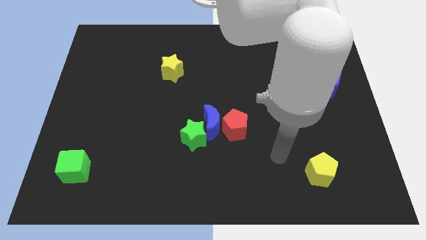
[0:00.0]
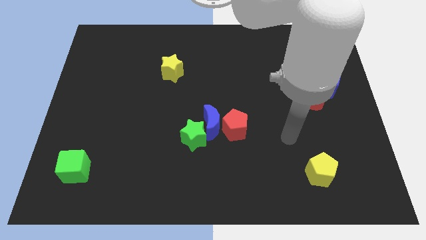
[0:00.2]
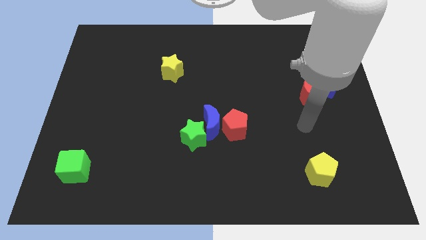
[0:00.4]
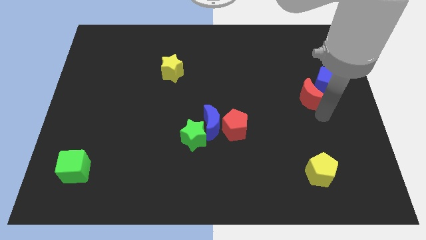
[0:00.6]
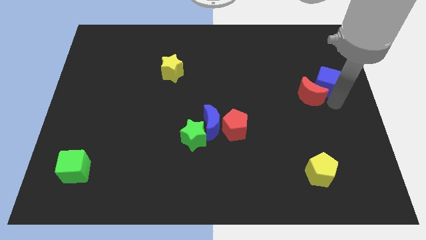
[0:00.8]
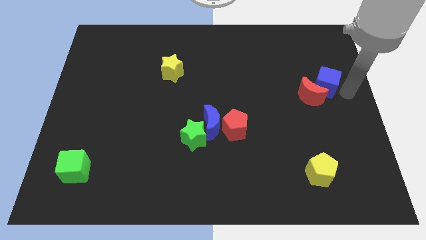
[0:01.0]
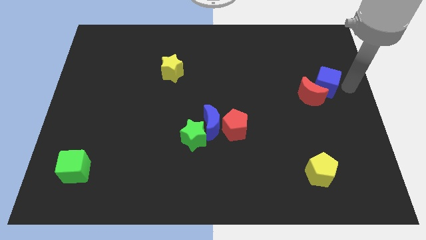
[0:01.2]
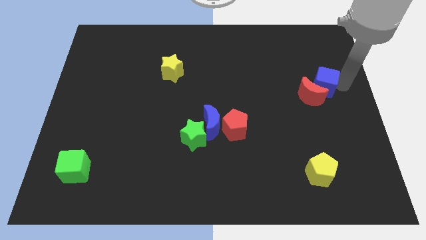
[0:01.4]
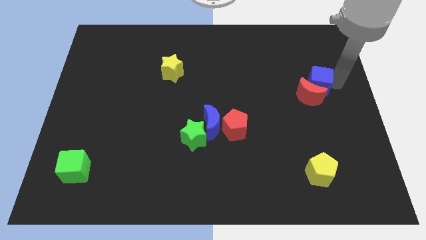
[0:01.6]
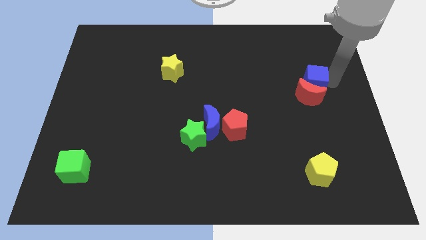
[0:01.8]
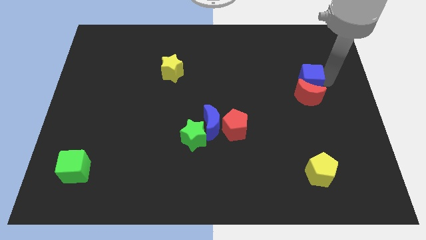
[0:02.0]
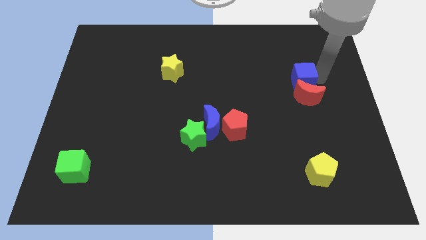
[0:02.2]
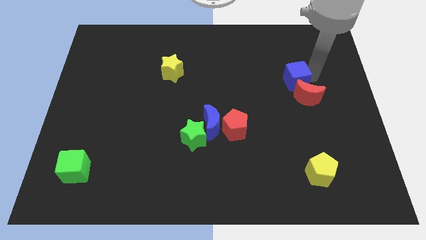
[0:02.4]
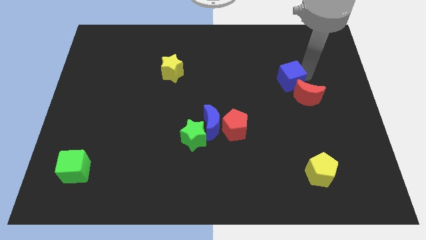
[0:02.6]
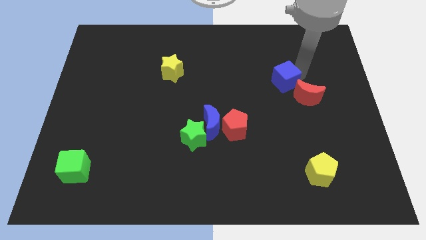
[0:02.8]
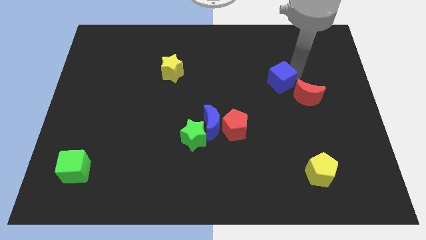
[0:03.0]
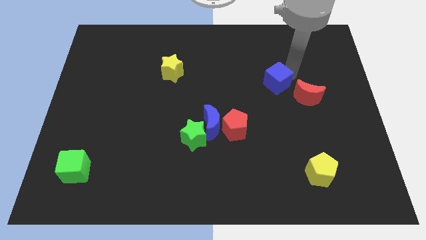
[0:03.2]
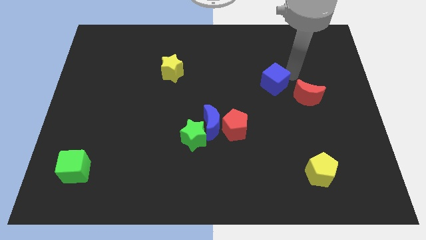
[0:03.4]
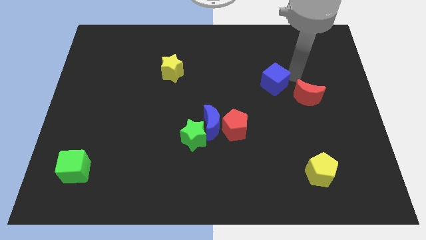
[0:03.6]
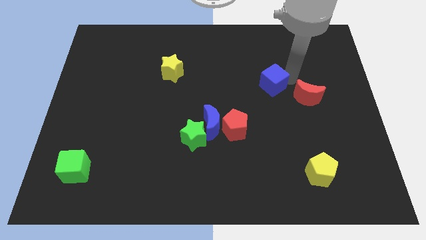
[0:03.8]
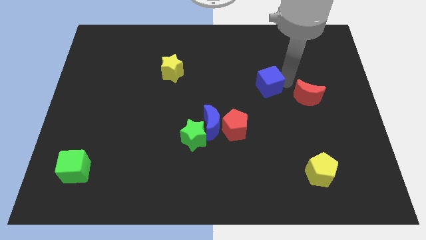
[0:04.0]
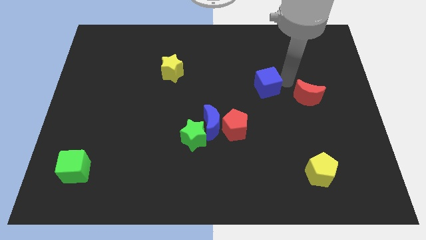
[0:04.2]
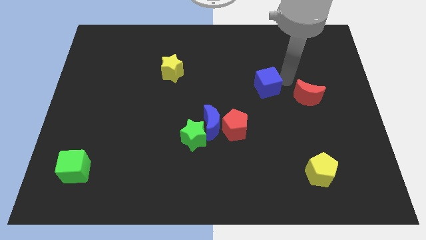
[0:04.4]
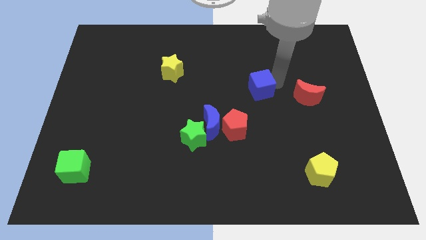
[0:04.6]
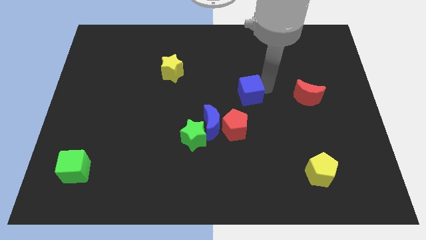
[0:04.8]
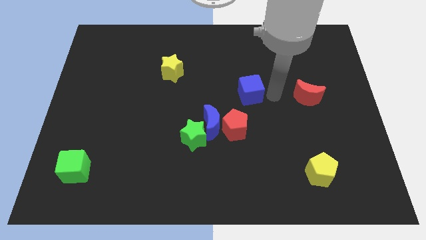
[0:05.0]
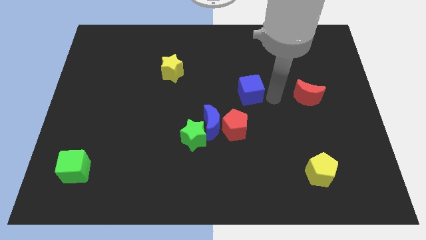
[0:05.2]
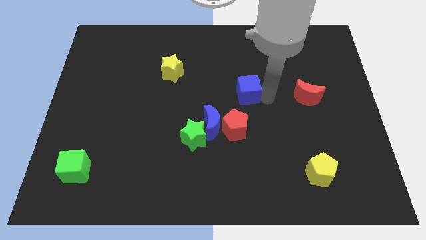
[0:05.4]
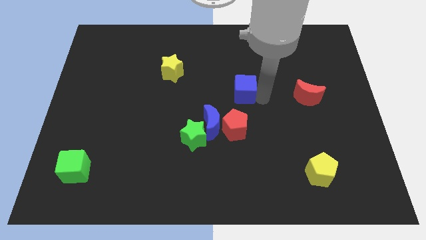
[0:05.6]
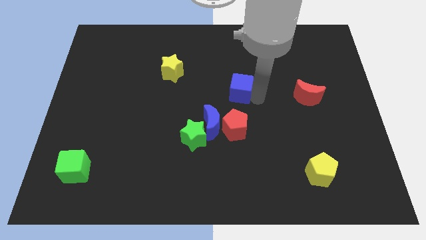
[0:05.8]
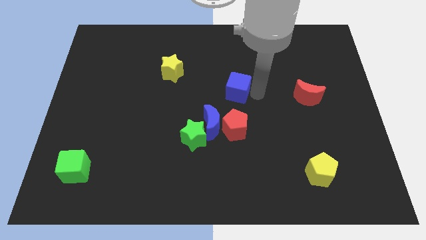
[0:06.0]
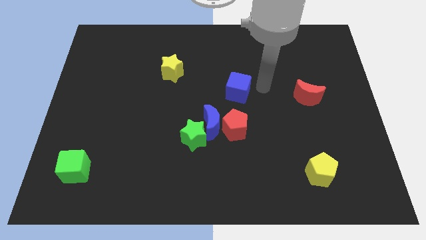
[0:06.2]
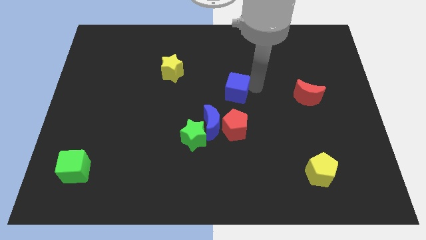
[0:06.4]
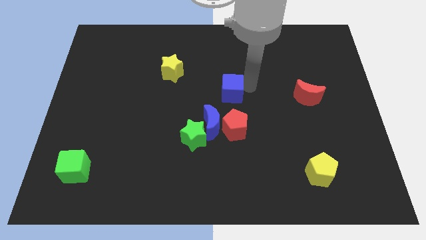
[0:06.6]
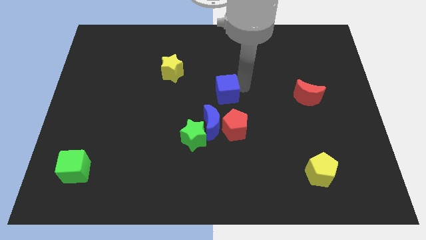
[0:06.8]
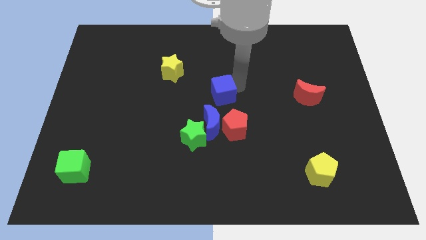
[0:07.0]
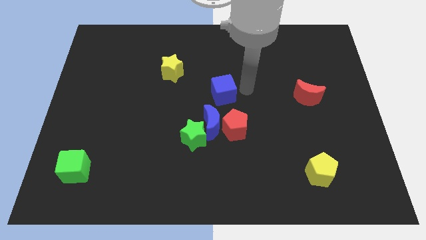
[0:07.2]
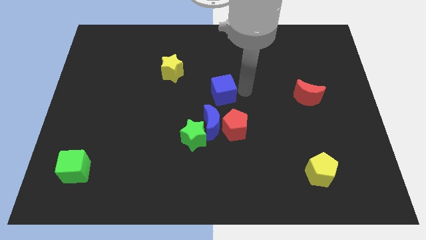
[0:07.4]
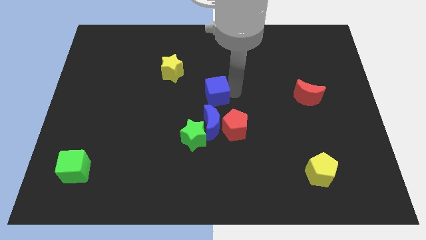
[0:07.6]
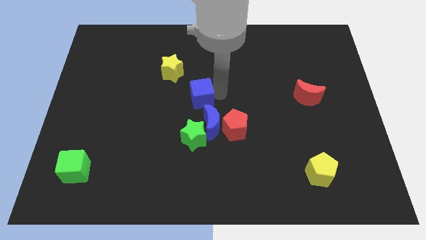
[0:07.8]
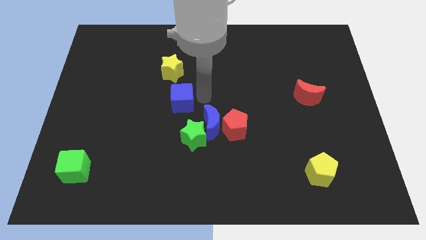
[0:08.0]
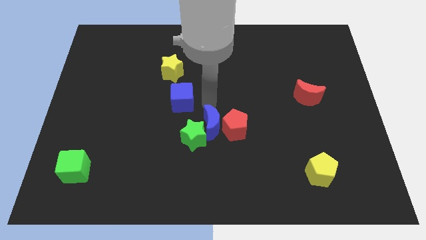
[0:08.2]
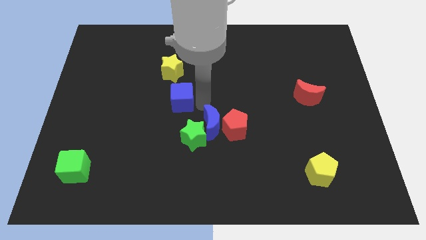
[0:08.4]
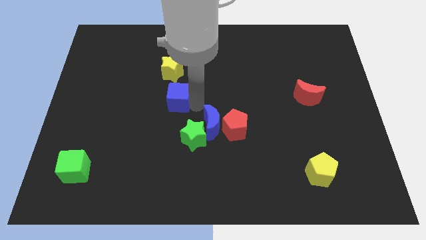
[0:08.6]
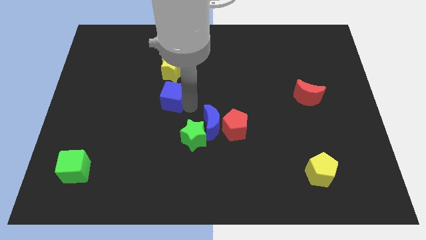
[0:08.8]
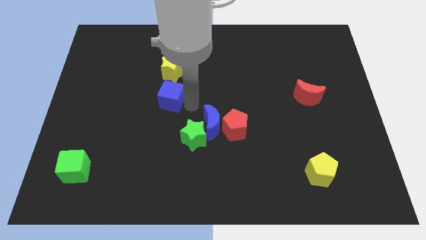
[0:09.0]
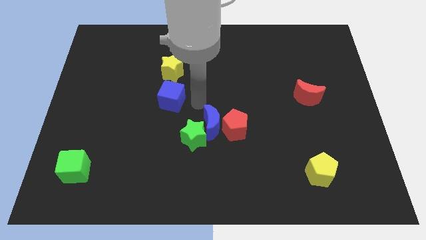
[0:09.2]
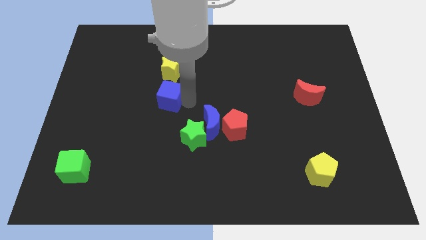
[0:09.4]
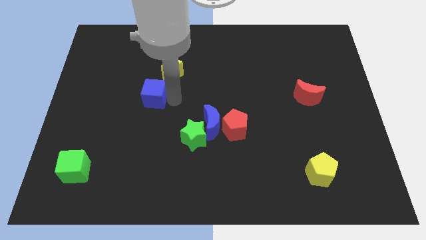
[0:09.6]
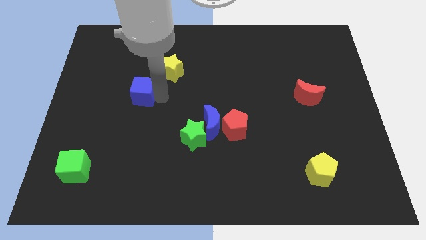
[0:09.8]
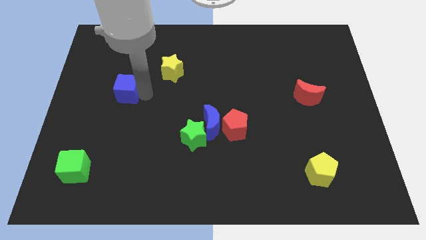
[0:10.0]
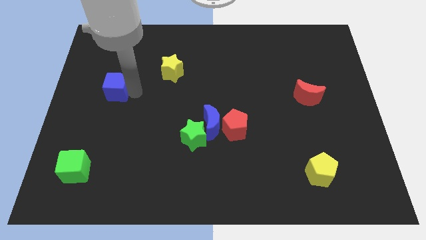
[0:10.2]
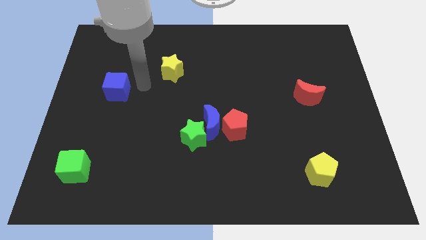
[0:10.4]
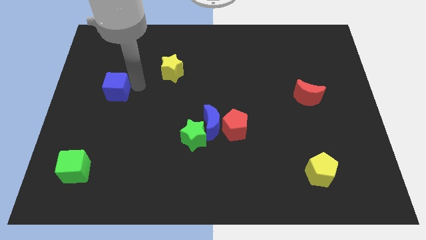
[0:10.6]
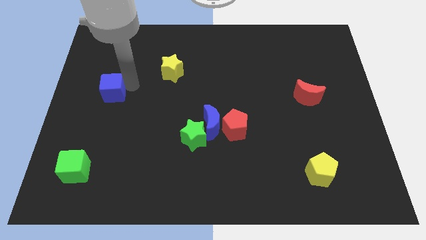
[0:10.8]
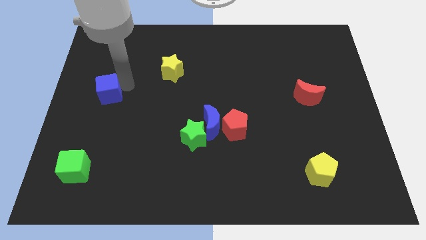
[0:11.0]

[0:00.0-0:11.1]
push the blue cube to the center left

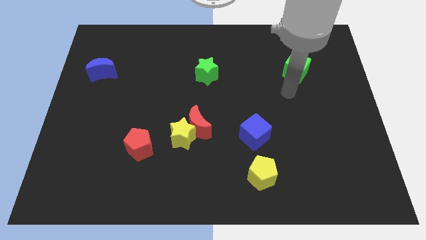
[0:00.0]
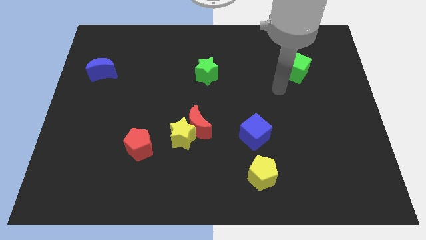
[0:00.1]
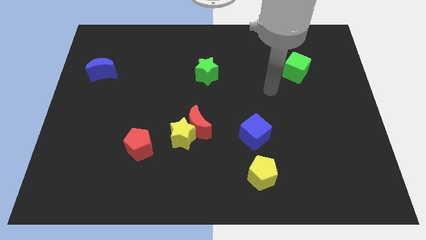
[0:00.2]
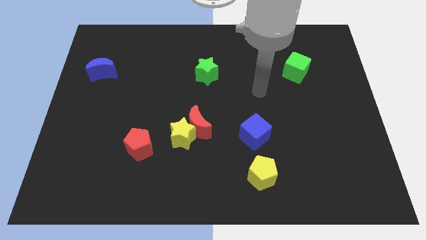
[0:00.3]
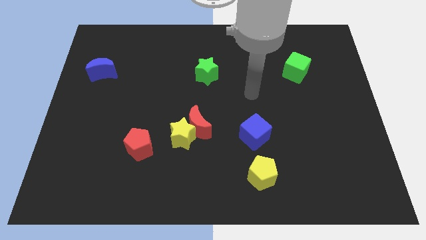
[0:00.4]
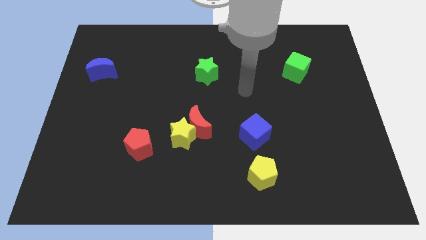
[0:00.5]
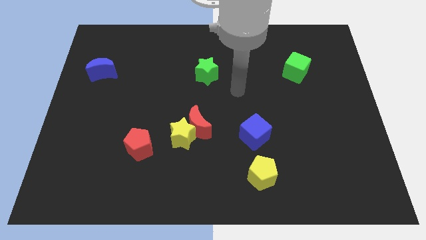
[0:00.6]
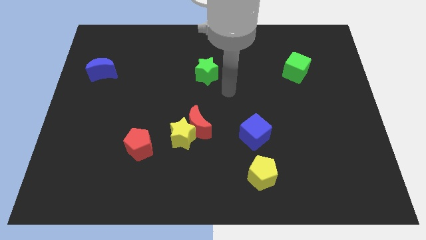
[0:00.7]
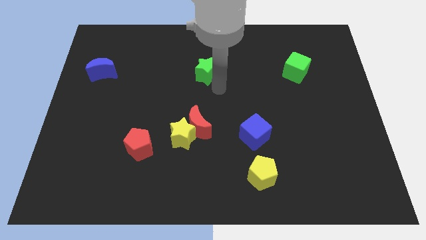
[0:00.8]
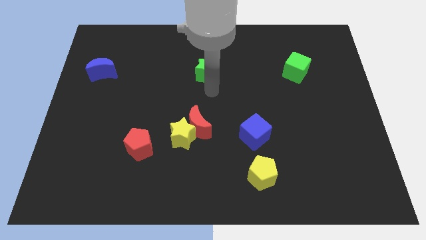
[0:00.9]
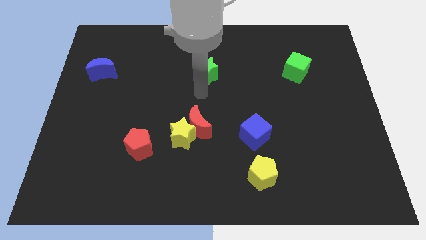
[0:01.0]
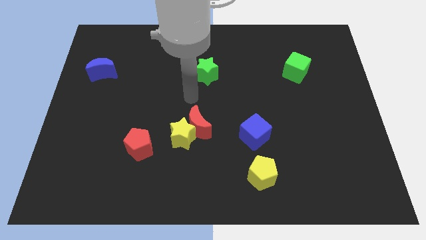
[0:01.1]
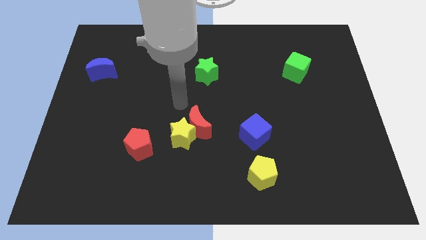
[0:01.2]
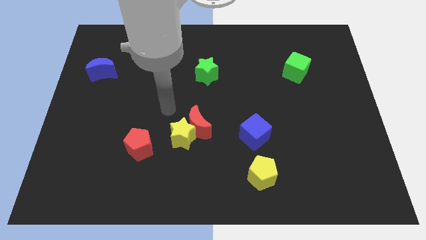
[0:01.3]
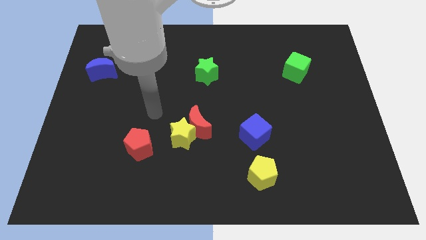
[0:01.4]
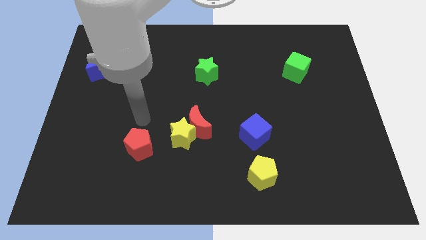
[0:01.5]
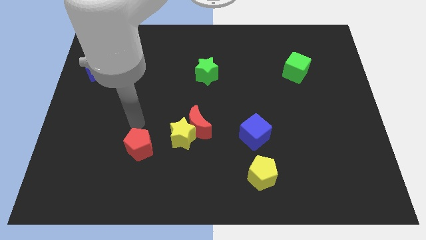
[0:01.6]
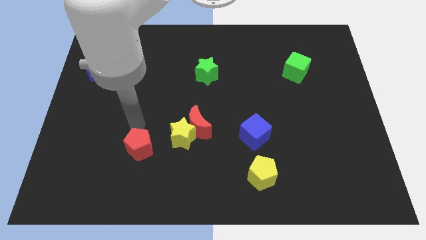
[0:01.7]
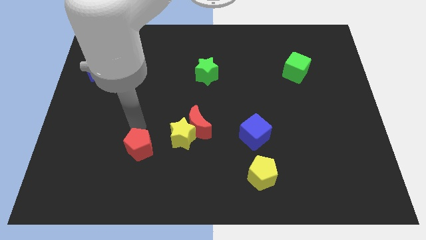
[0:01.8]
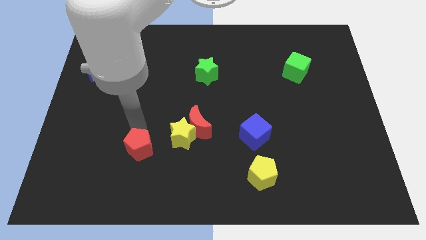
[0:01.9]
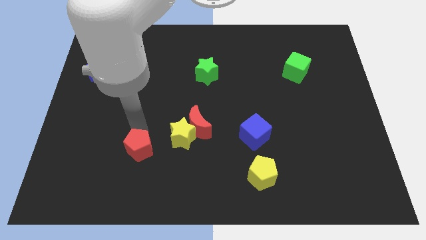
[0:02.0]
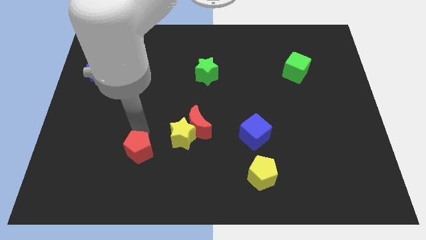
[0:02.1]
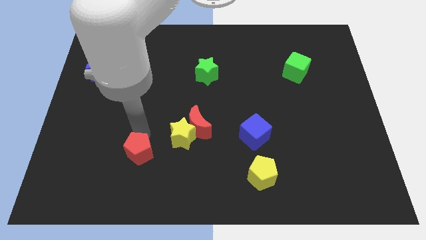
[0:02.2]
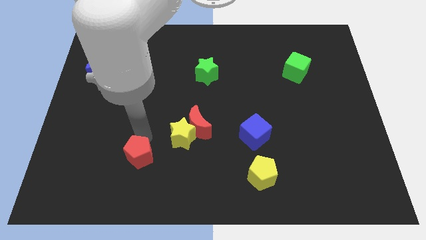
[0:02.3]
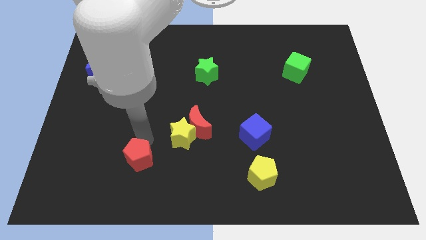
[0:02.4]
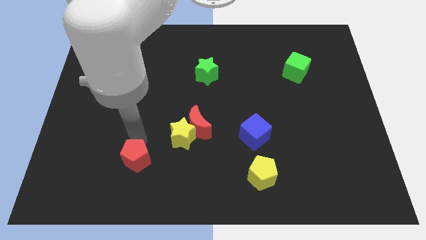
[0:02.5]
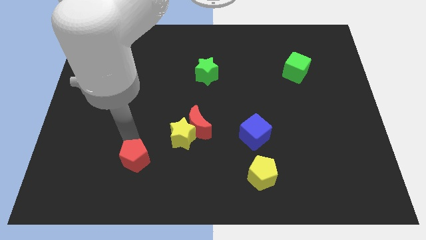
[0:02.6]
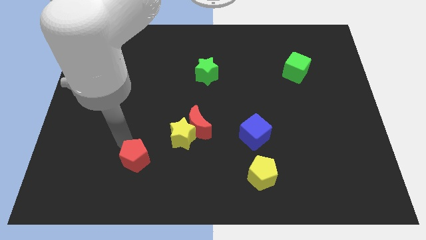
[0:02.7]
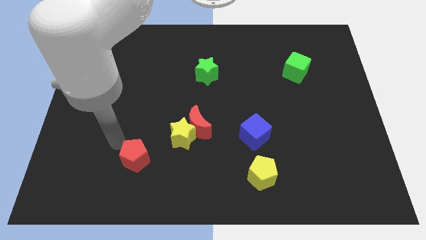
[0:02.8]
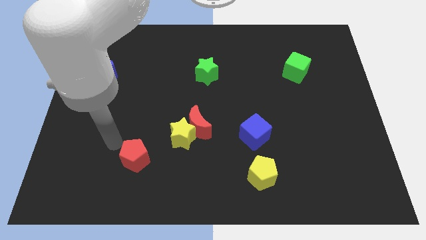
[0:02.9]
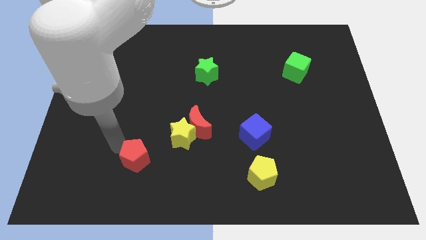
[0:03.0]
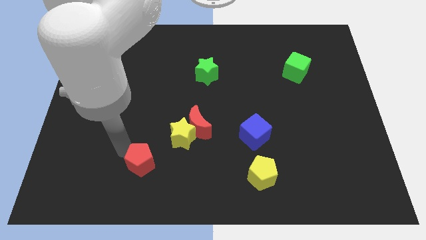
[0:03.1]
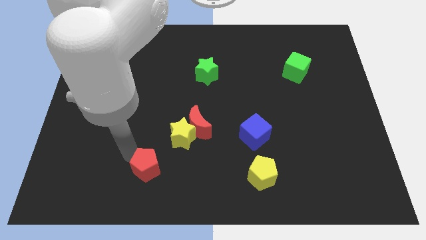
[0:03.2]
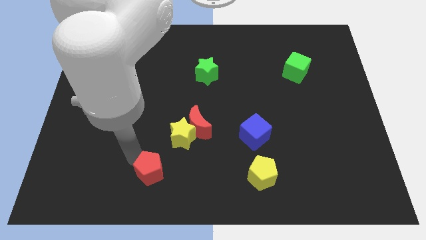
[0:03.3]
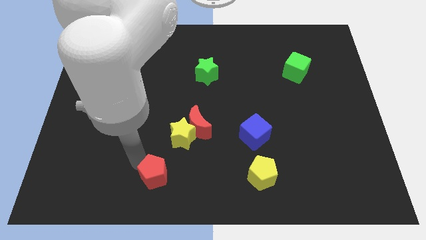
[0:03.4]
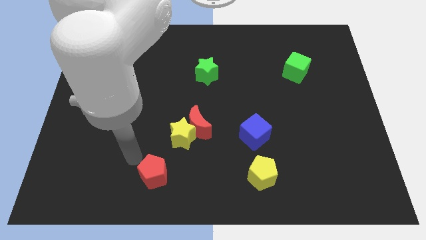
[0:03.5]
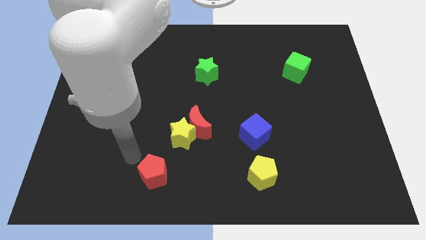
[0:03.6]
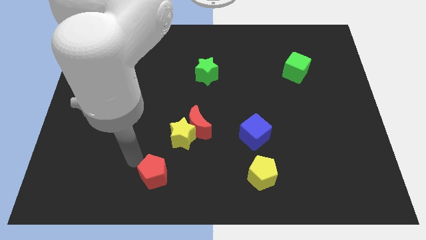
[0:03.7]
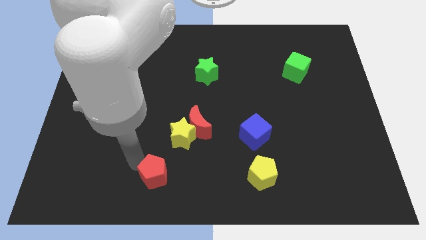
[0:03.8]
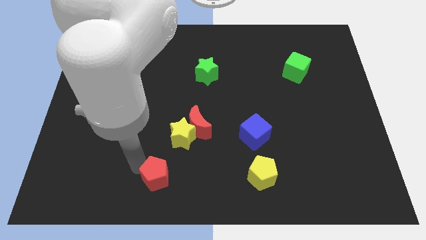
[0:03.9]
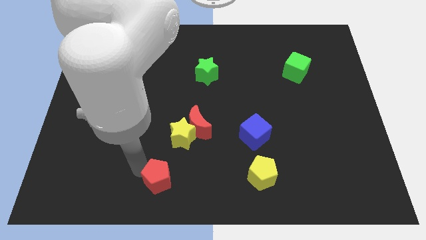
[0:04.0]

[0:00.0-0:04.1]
put the red pentagon to the bottom
